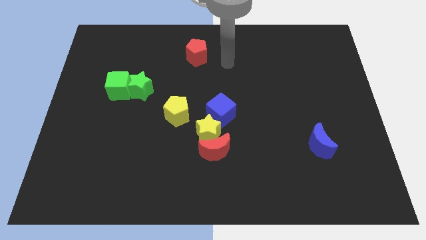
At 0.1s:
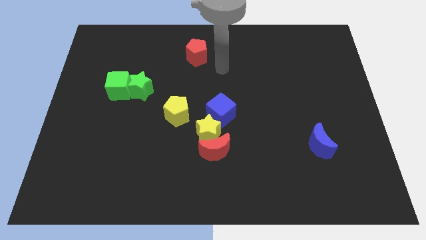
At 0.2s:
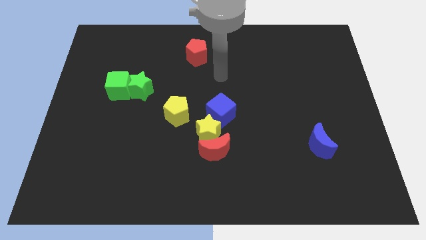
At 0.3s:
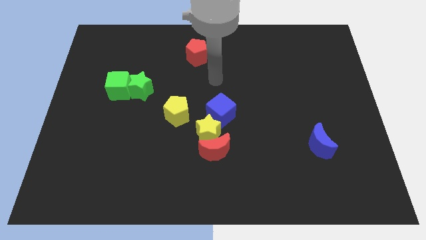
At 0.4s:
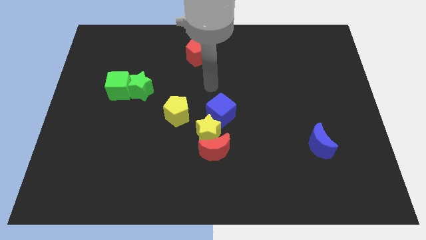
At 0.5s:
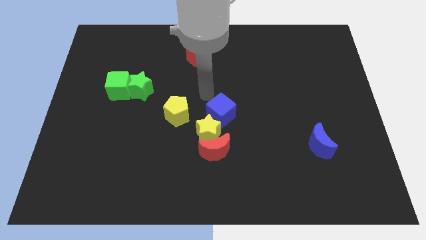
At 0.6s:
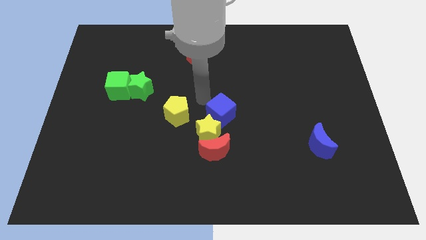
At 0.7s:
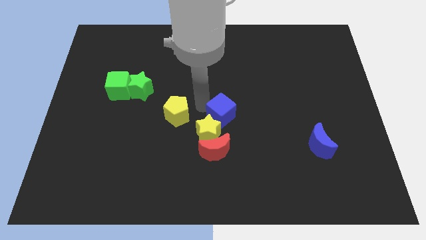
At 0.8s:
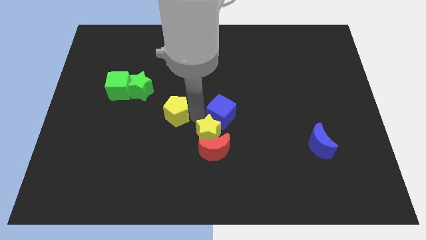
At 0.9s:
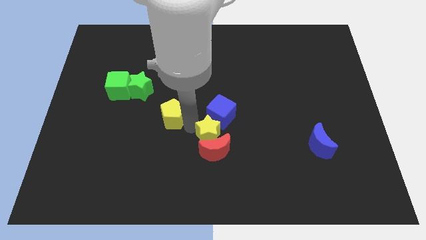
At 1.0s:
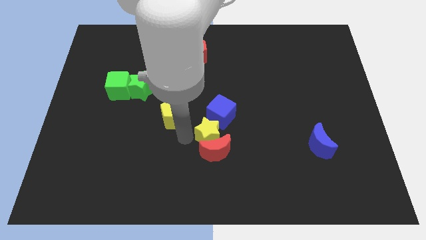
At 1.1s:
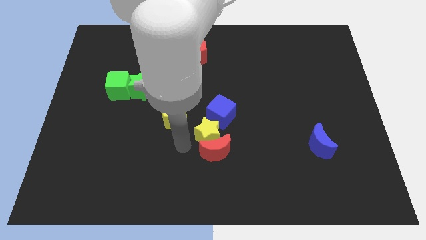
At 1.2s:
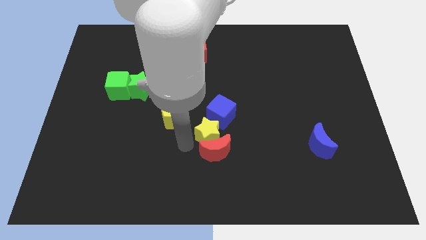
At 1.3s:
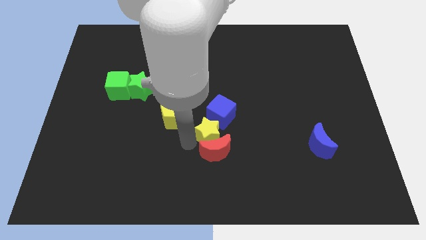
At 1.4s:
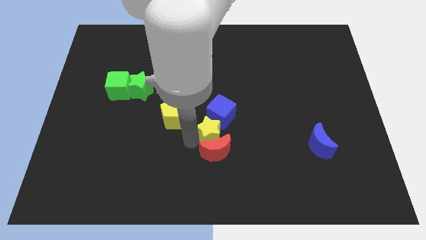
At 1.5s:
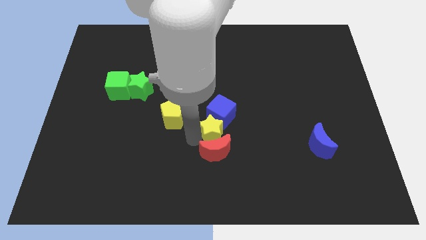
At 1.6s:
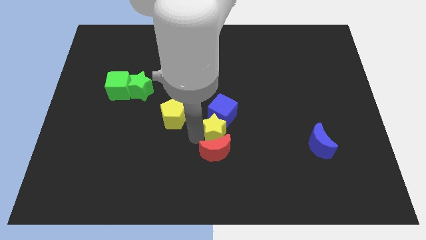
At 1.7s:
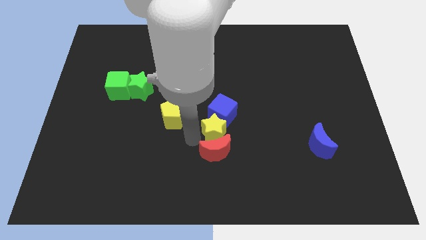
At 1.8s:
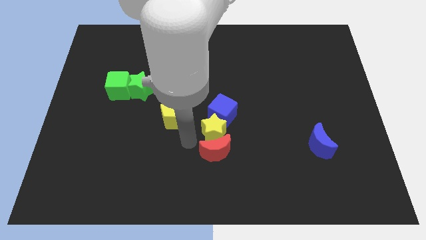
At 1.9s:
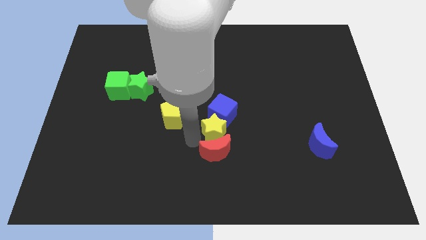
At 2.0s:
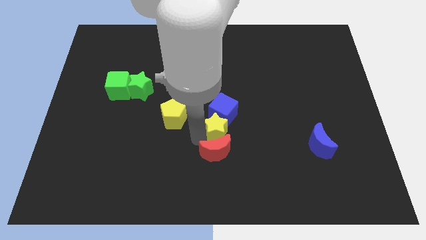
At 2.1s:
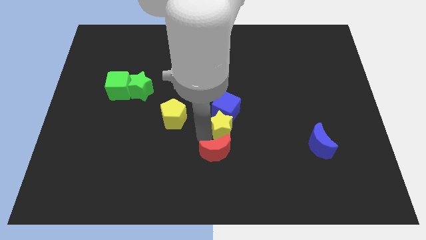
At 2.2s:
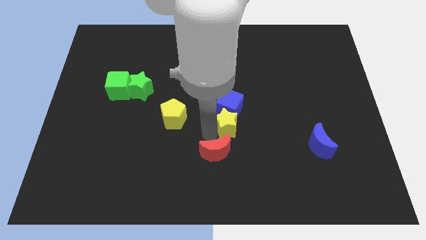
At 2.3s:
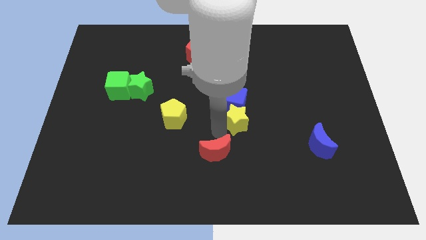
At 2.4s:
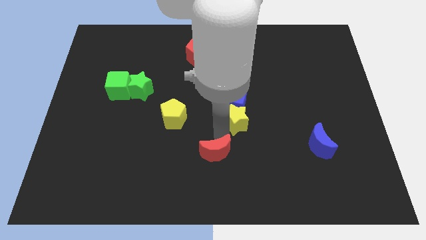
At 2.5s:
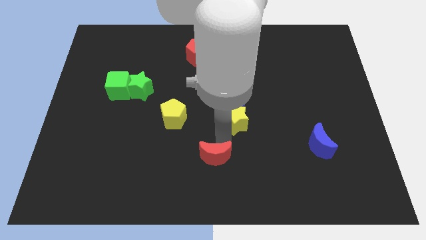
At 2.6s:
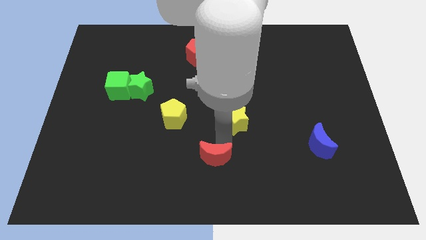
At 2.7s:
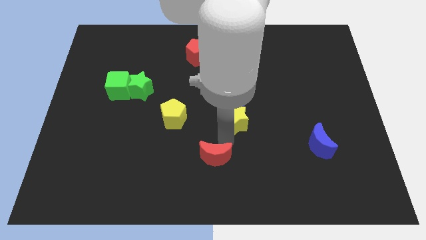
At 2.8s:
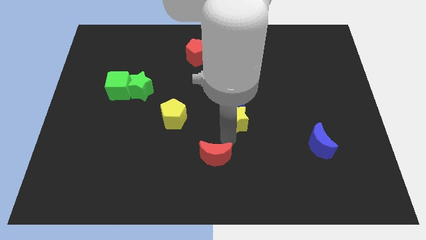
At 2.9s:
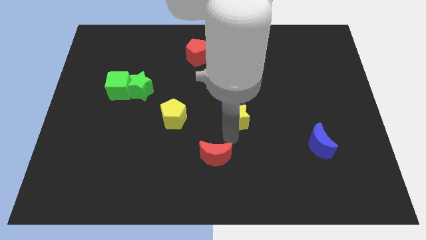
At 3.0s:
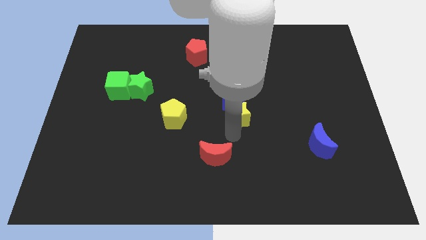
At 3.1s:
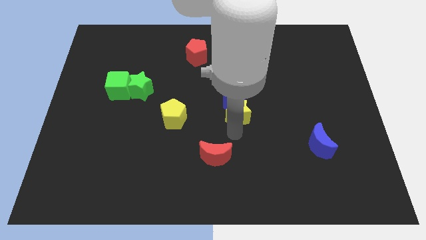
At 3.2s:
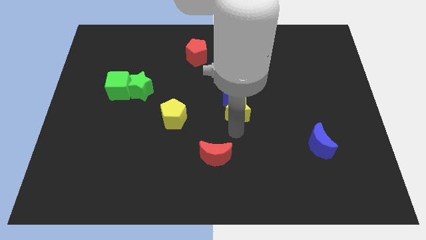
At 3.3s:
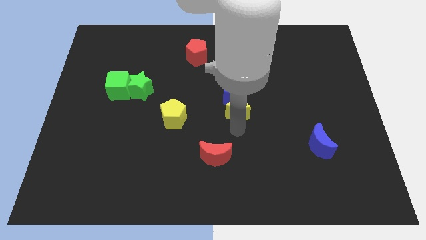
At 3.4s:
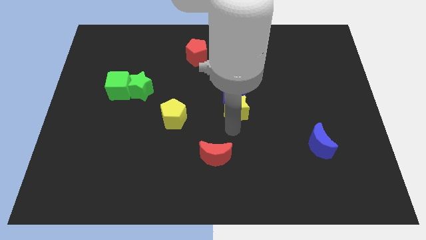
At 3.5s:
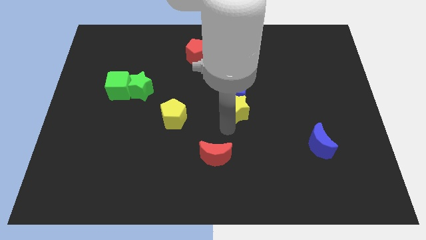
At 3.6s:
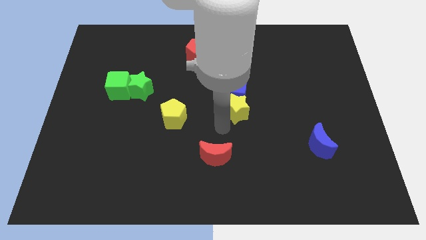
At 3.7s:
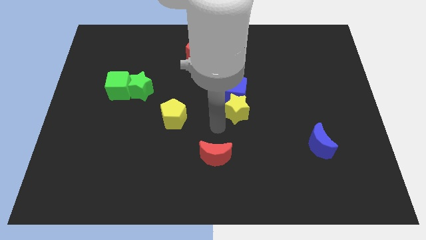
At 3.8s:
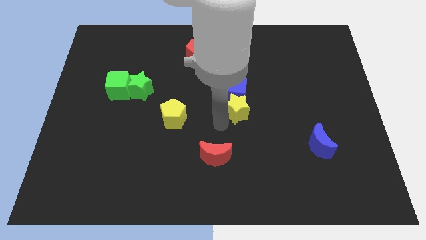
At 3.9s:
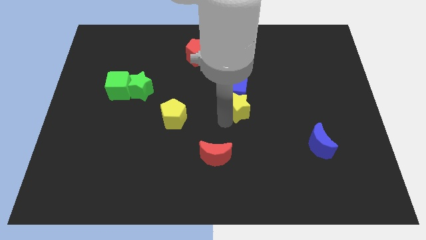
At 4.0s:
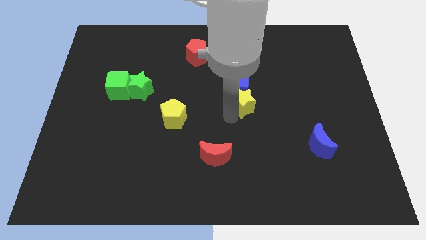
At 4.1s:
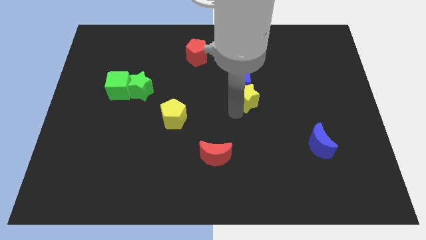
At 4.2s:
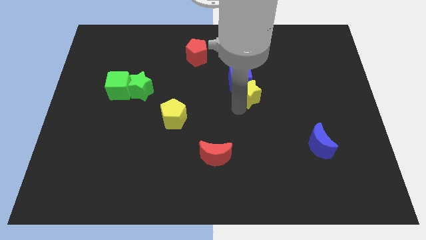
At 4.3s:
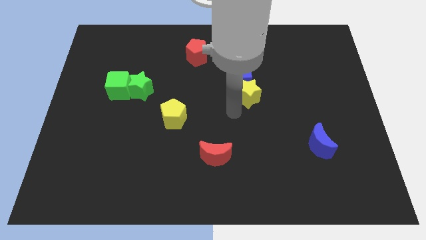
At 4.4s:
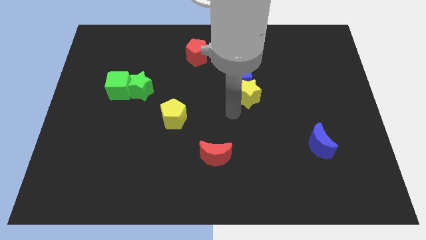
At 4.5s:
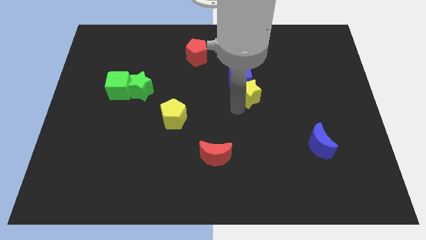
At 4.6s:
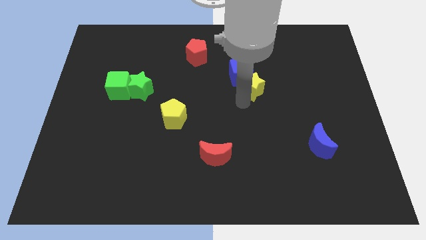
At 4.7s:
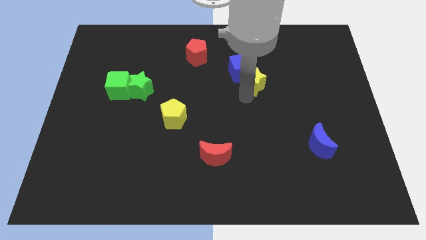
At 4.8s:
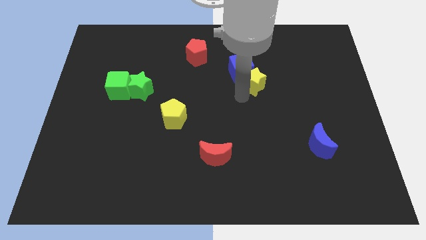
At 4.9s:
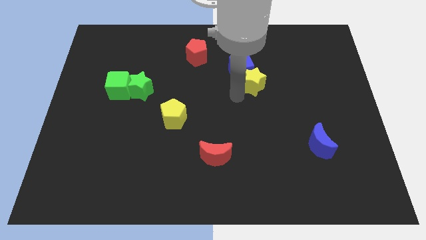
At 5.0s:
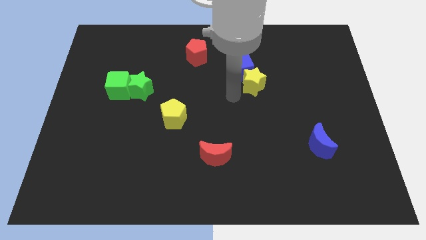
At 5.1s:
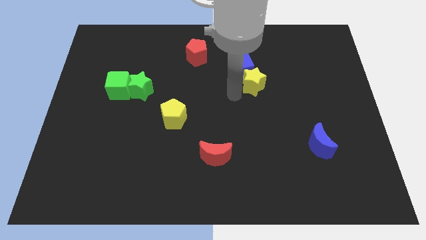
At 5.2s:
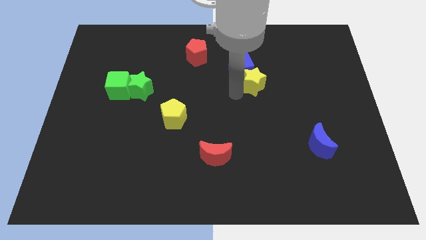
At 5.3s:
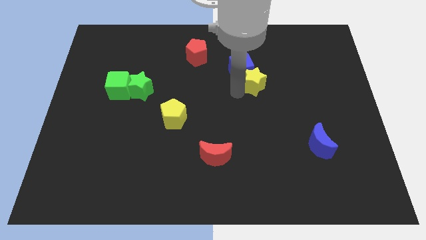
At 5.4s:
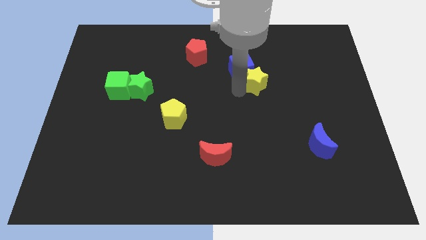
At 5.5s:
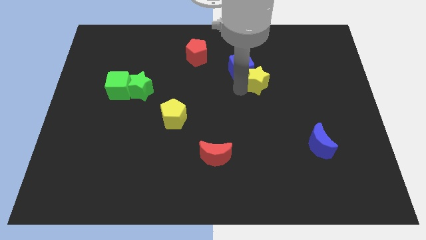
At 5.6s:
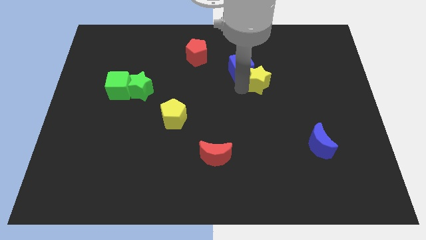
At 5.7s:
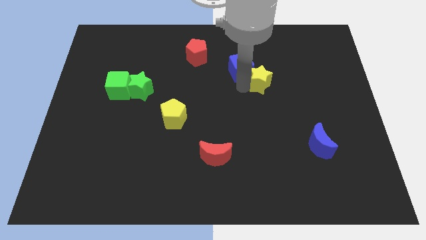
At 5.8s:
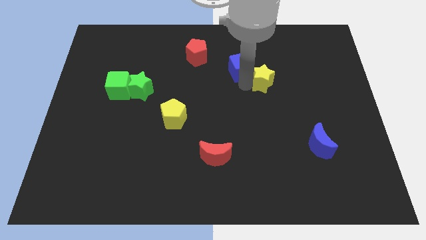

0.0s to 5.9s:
slide the yellow star up and to the right diagonally

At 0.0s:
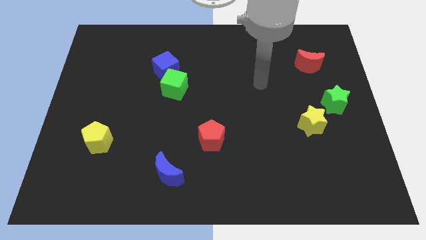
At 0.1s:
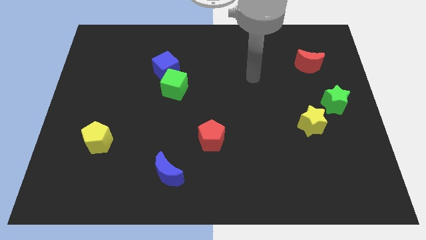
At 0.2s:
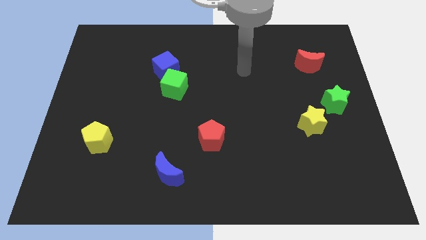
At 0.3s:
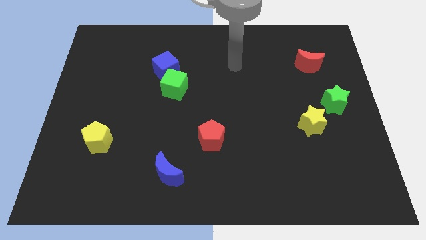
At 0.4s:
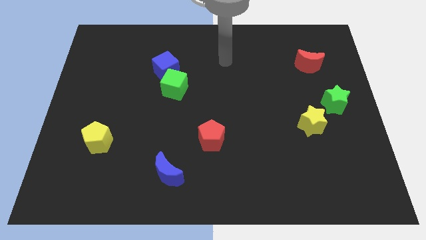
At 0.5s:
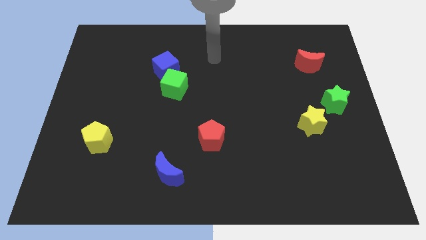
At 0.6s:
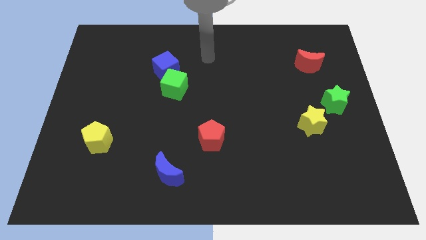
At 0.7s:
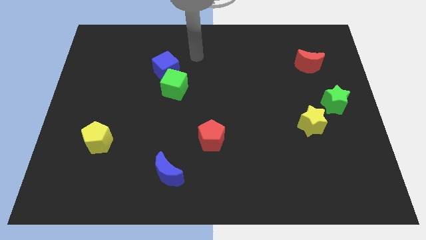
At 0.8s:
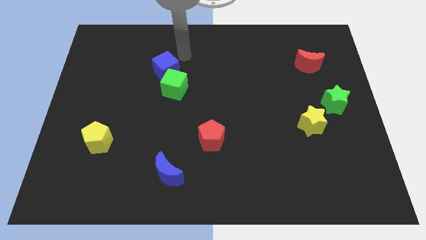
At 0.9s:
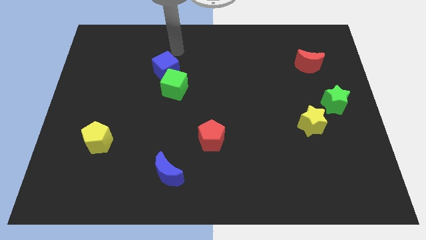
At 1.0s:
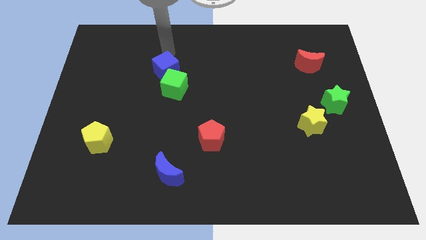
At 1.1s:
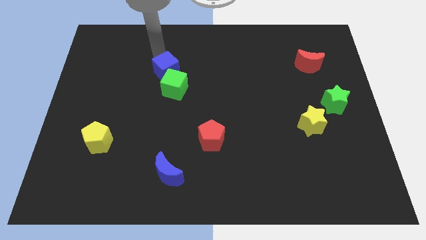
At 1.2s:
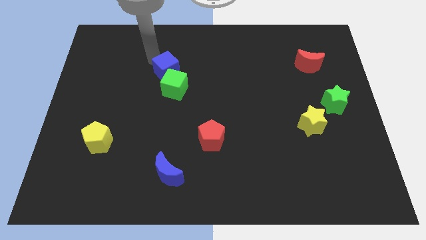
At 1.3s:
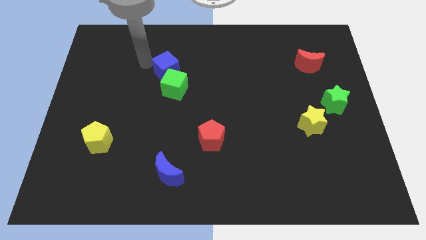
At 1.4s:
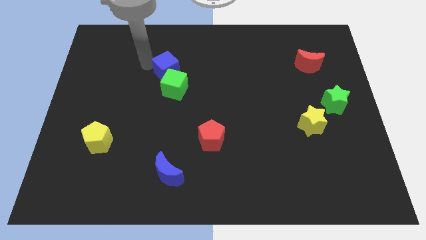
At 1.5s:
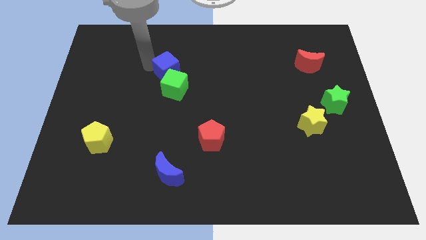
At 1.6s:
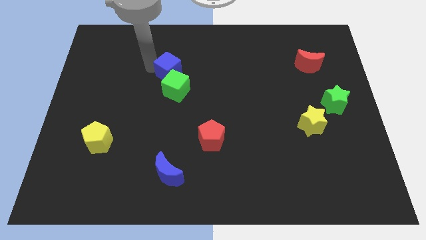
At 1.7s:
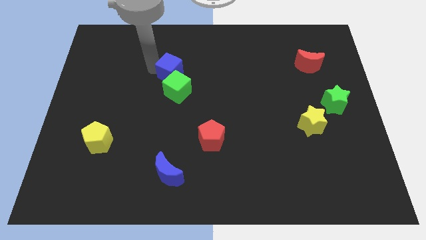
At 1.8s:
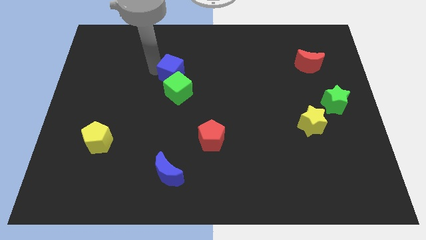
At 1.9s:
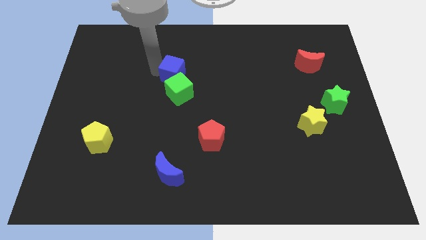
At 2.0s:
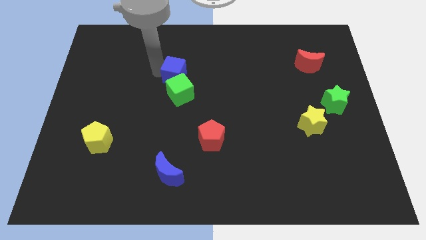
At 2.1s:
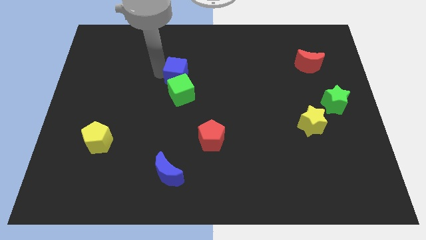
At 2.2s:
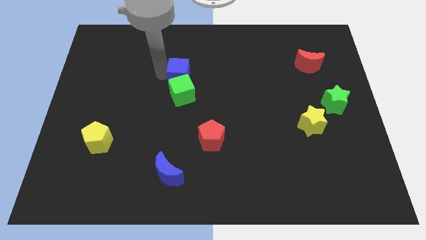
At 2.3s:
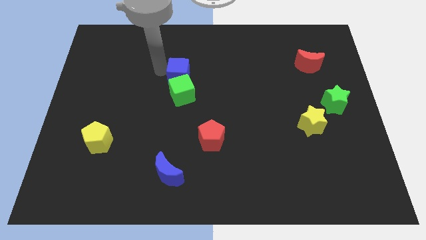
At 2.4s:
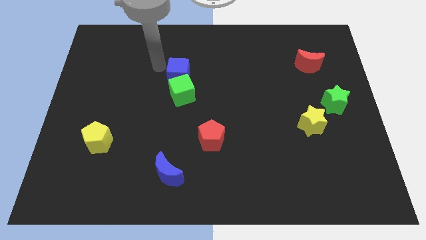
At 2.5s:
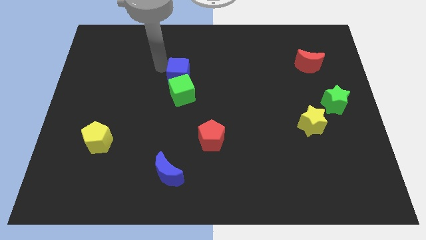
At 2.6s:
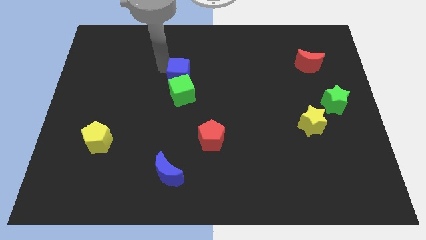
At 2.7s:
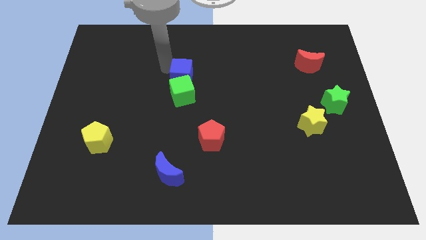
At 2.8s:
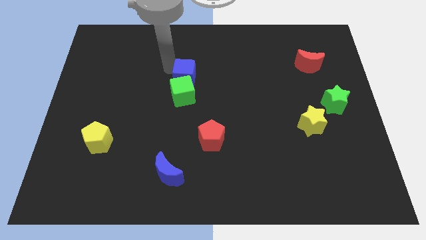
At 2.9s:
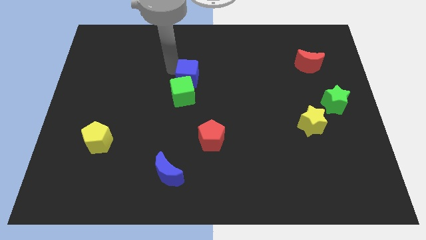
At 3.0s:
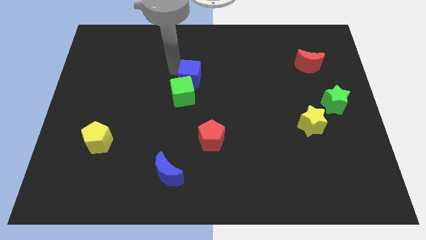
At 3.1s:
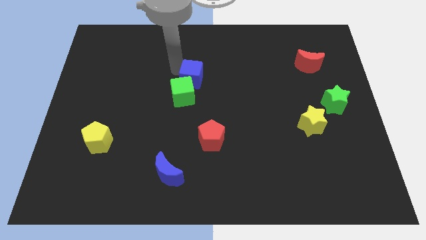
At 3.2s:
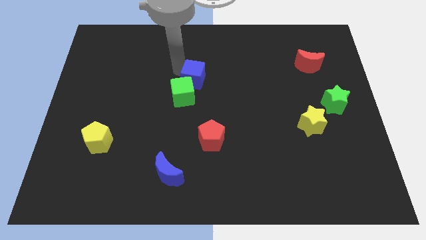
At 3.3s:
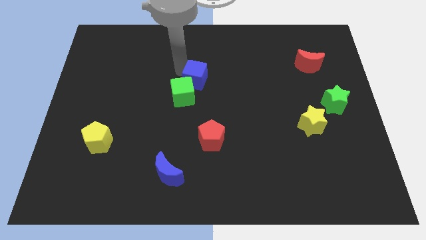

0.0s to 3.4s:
move the blue cube down and right diagonally slightly
